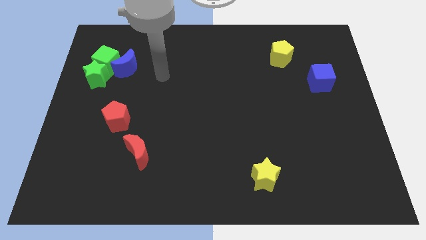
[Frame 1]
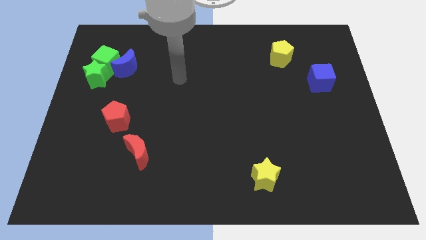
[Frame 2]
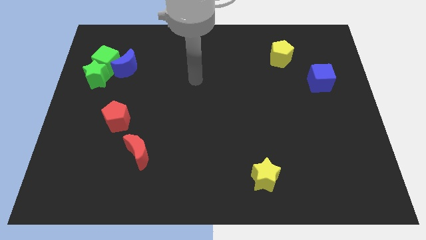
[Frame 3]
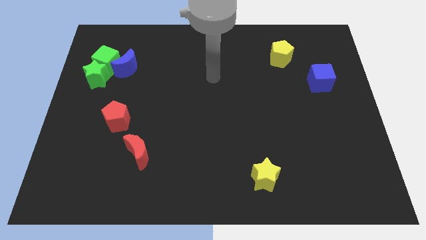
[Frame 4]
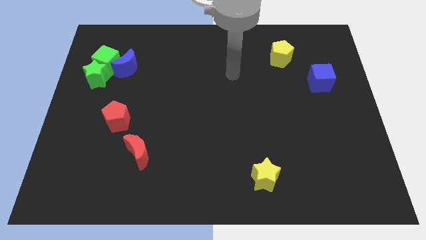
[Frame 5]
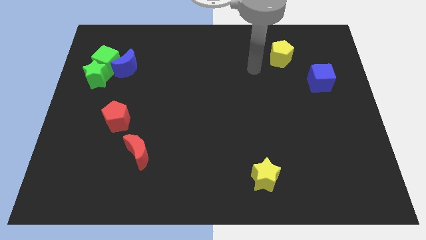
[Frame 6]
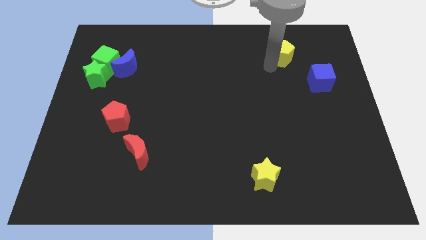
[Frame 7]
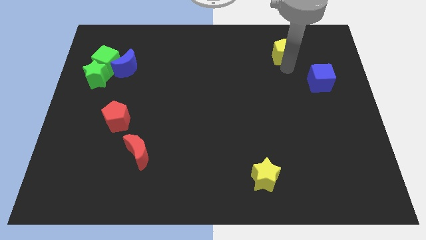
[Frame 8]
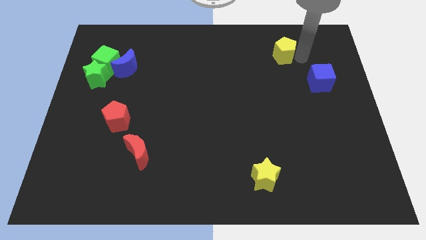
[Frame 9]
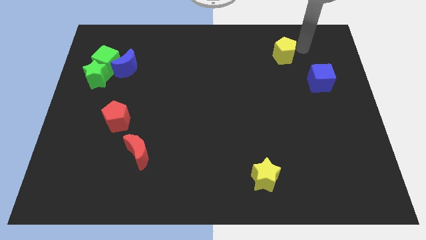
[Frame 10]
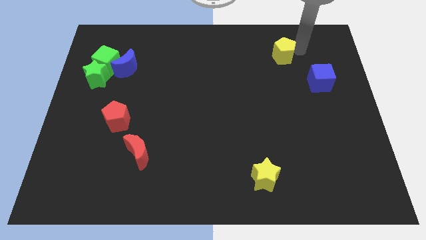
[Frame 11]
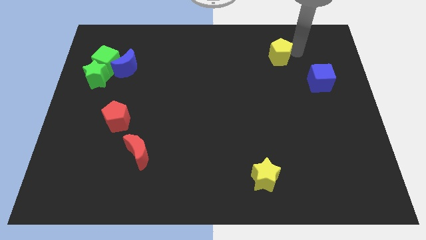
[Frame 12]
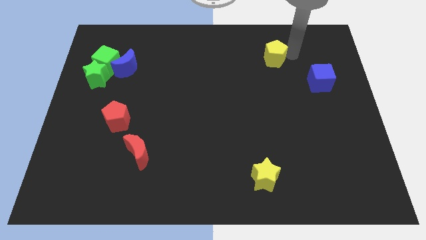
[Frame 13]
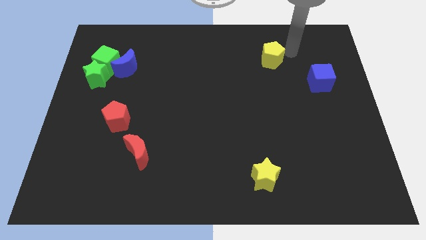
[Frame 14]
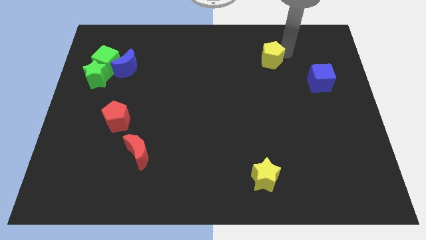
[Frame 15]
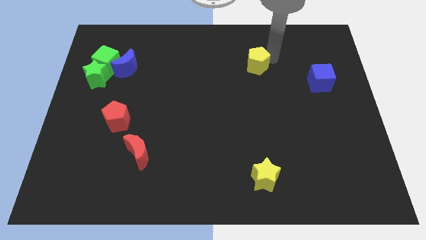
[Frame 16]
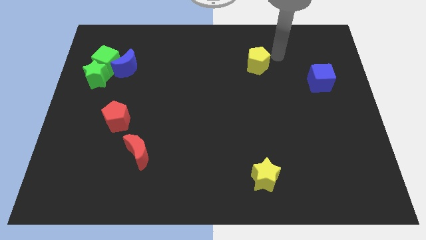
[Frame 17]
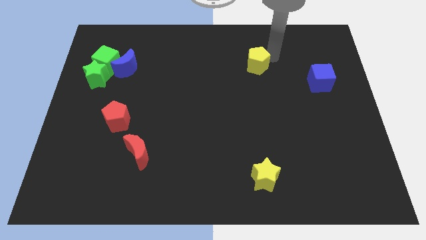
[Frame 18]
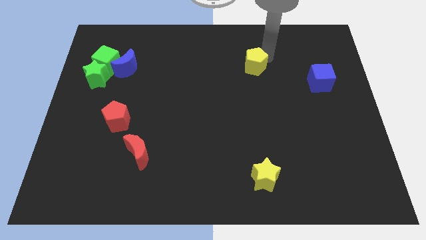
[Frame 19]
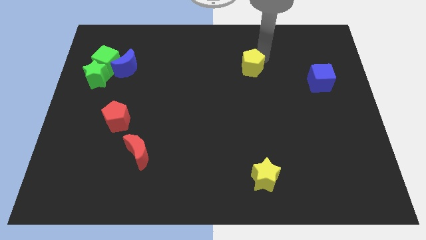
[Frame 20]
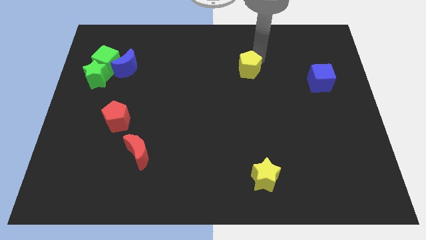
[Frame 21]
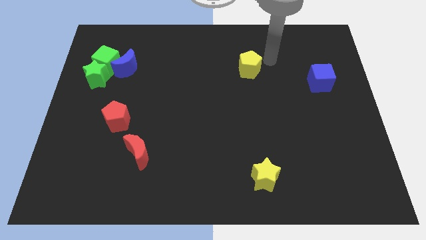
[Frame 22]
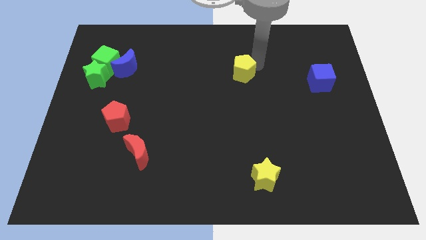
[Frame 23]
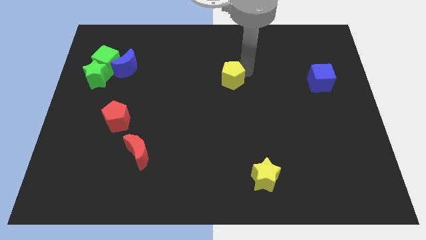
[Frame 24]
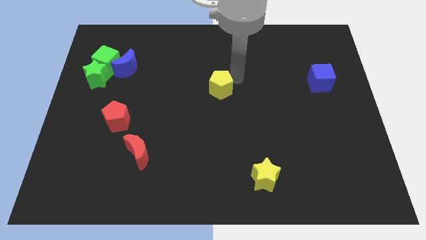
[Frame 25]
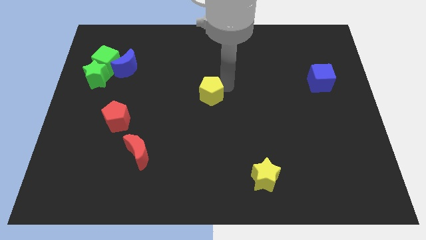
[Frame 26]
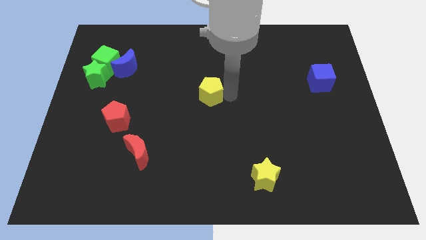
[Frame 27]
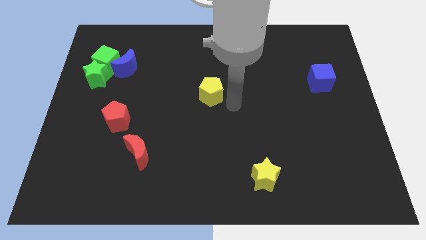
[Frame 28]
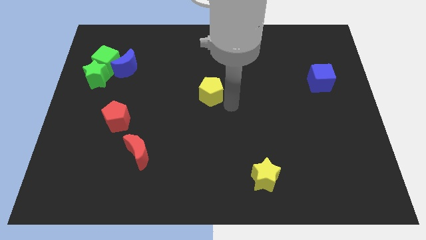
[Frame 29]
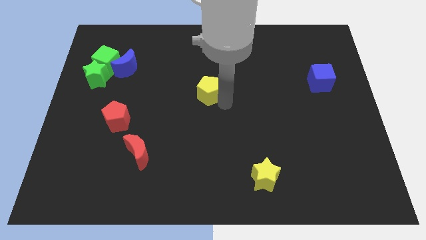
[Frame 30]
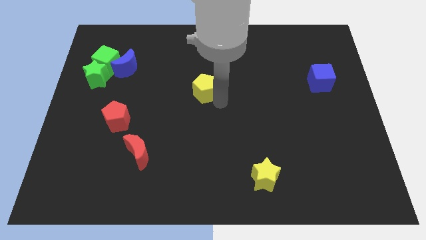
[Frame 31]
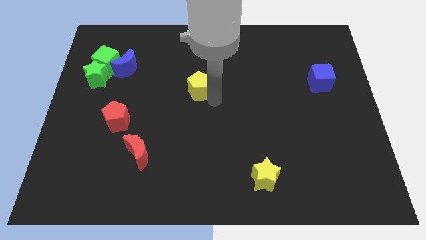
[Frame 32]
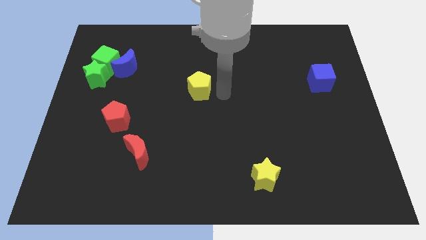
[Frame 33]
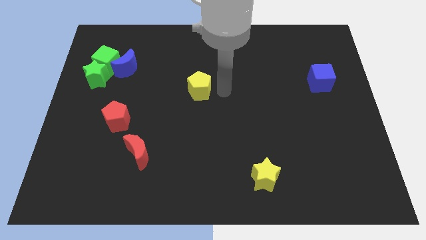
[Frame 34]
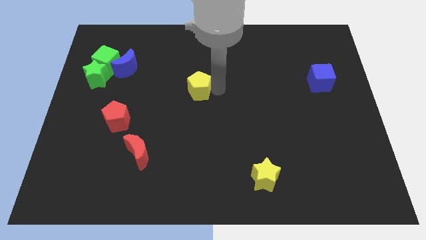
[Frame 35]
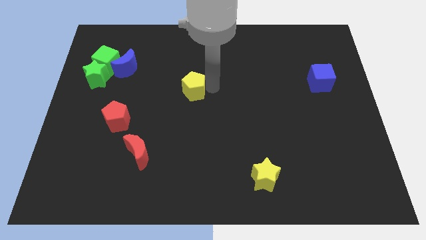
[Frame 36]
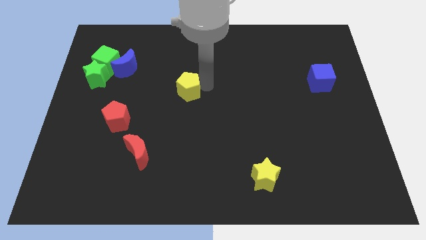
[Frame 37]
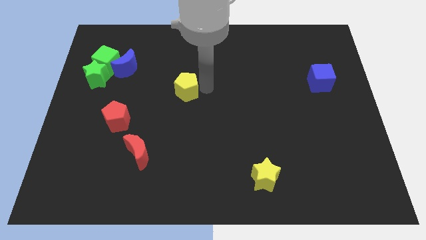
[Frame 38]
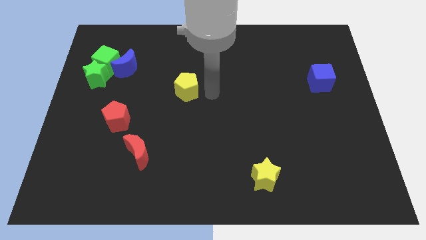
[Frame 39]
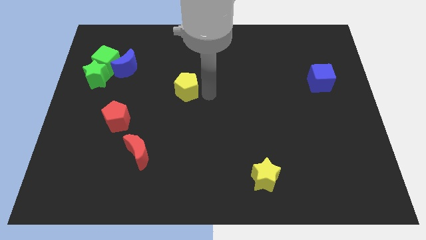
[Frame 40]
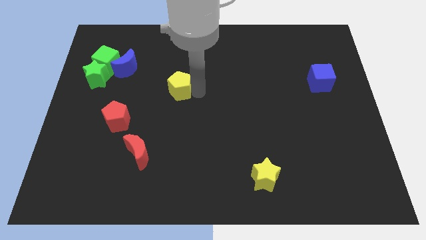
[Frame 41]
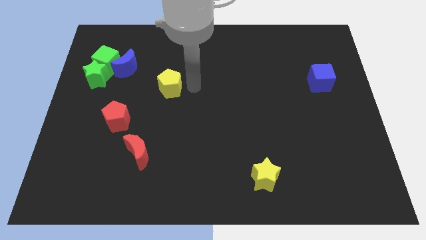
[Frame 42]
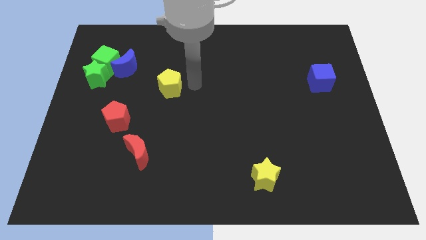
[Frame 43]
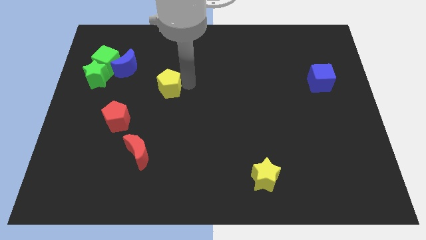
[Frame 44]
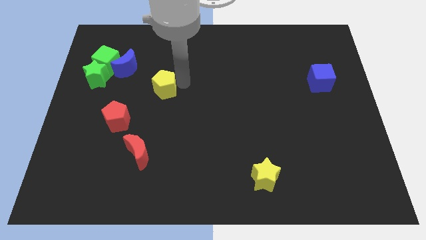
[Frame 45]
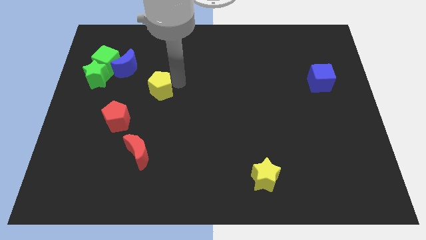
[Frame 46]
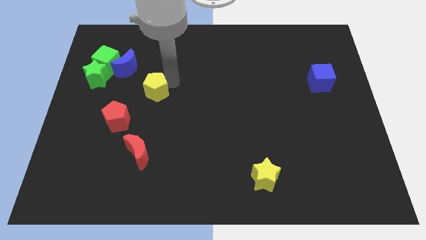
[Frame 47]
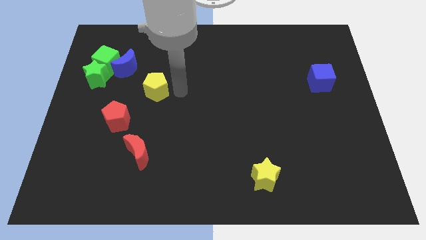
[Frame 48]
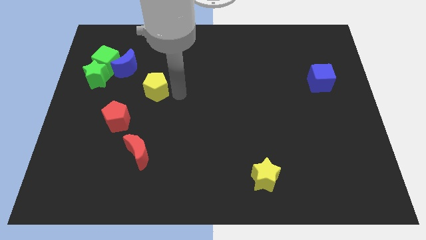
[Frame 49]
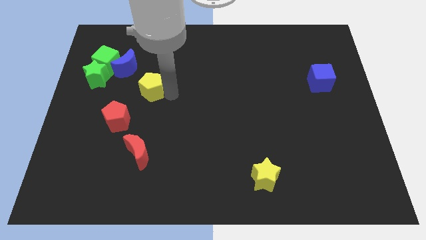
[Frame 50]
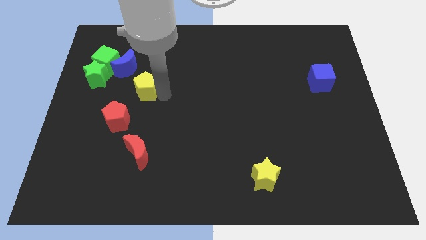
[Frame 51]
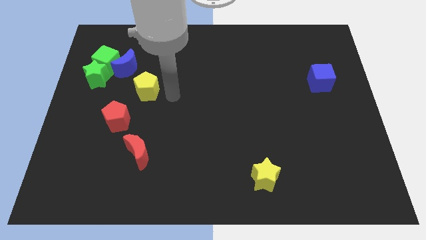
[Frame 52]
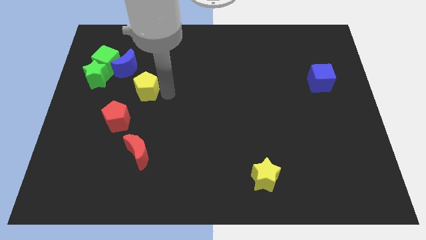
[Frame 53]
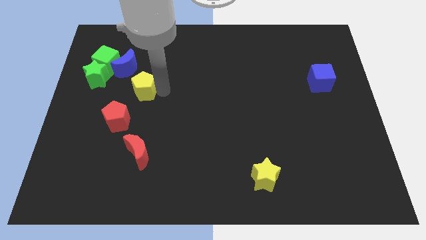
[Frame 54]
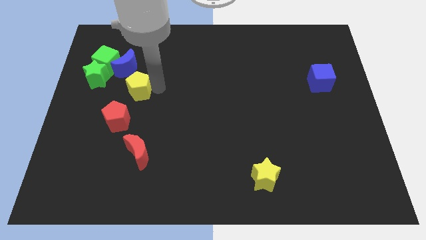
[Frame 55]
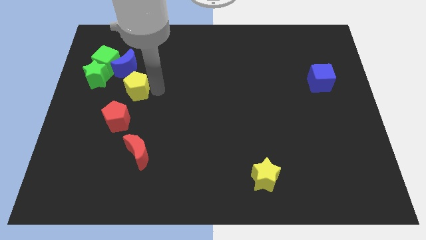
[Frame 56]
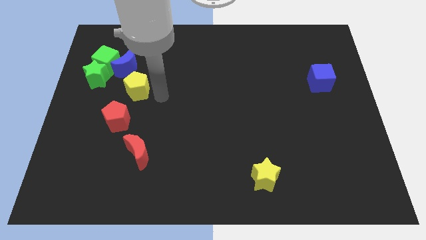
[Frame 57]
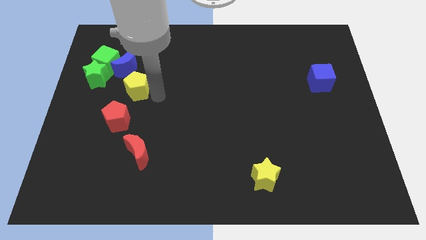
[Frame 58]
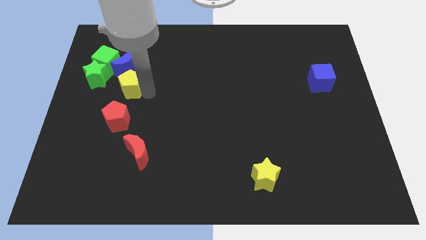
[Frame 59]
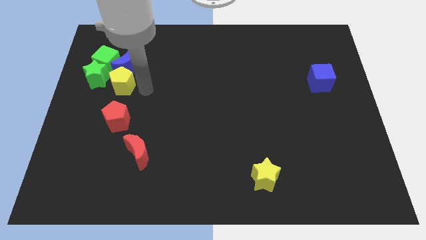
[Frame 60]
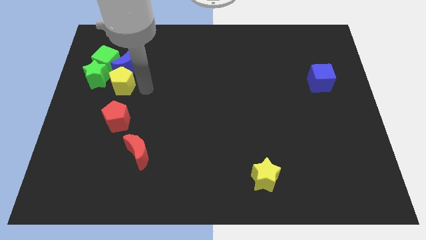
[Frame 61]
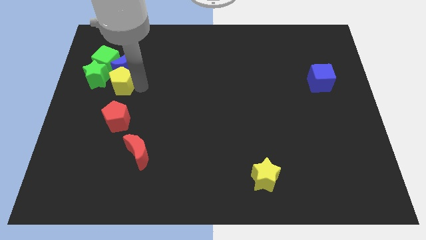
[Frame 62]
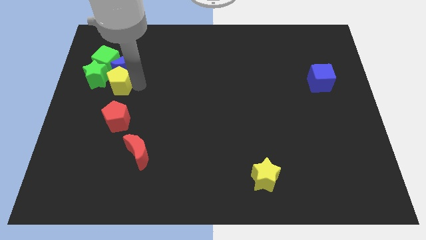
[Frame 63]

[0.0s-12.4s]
put the yellow pentagon next to the green star

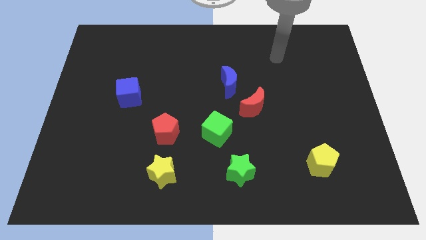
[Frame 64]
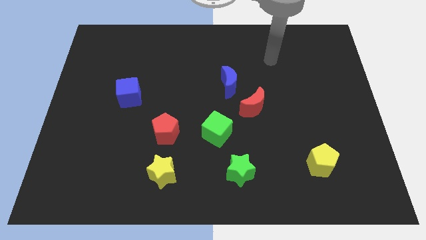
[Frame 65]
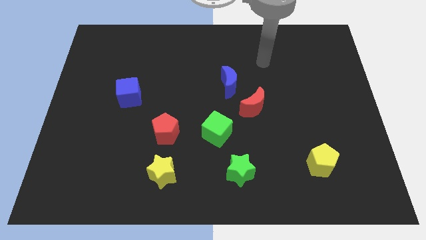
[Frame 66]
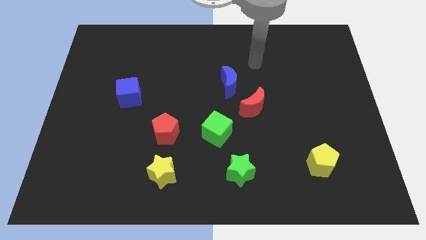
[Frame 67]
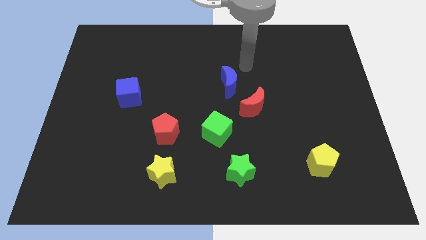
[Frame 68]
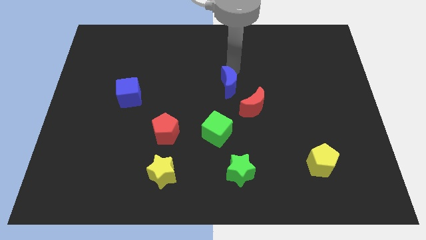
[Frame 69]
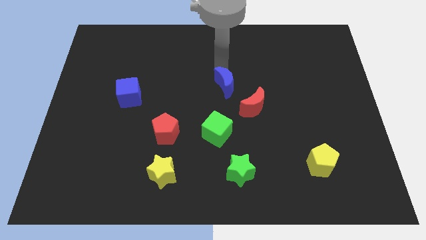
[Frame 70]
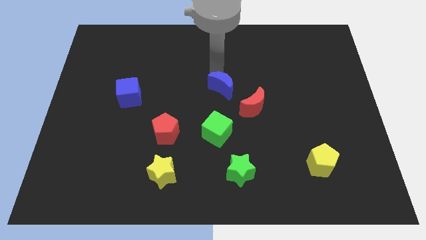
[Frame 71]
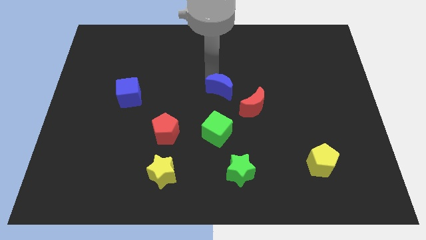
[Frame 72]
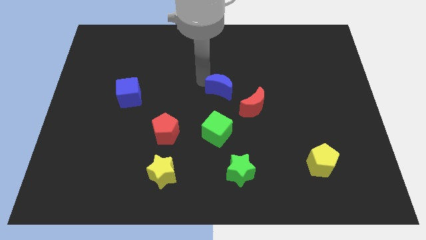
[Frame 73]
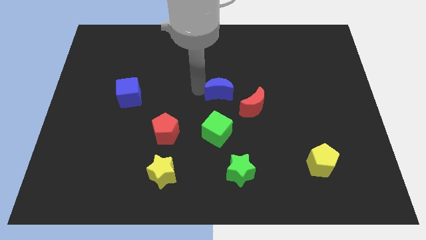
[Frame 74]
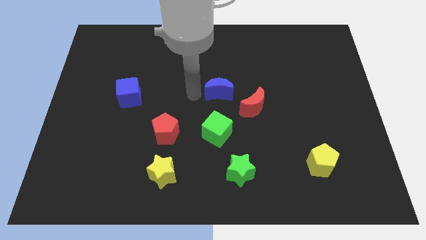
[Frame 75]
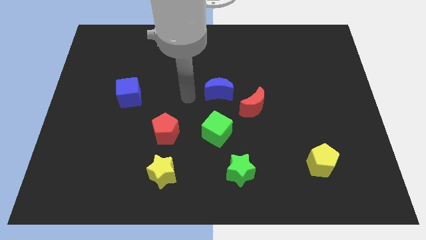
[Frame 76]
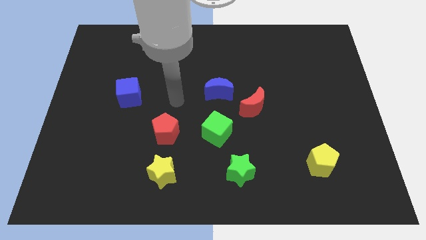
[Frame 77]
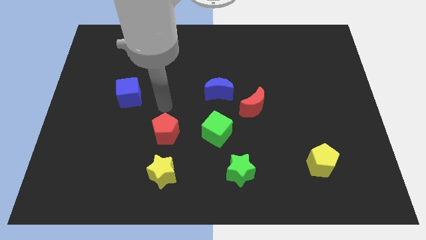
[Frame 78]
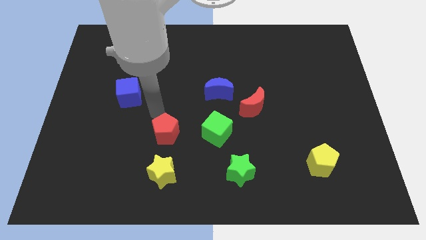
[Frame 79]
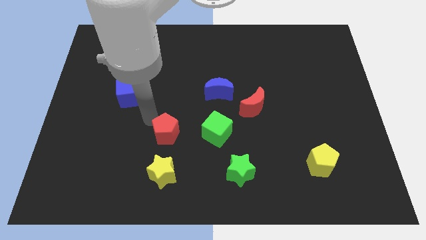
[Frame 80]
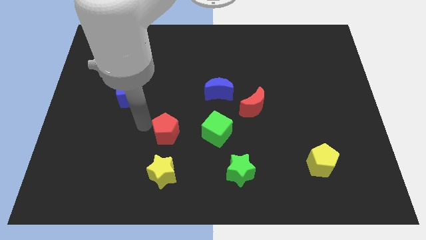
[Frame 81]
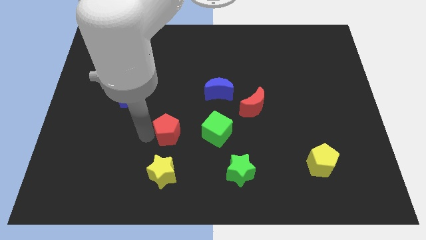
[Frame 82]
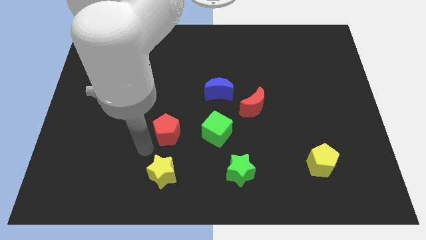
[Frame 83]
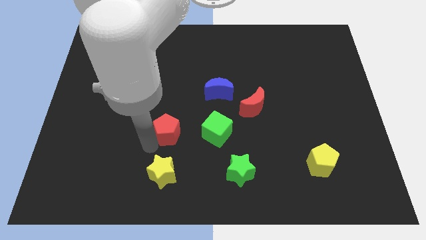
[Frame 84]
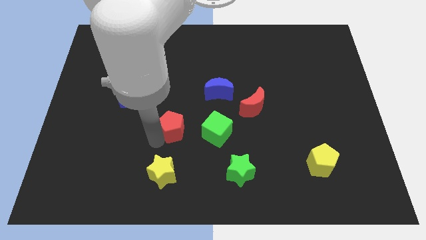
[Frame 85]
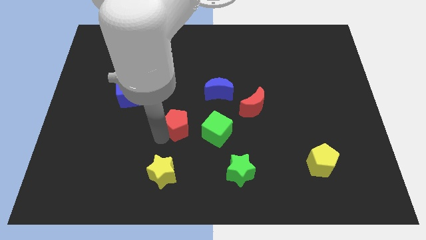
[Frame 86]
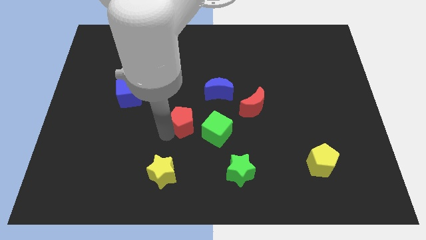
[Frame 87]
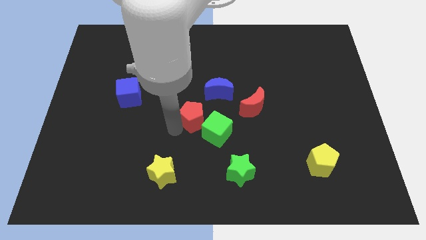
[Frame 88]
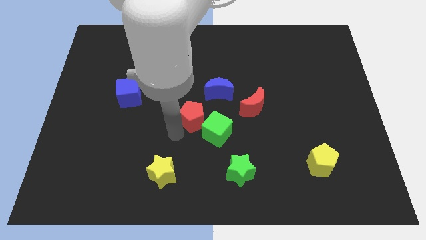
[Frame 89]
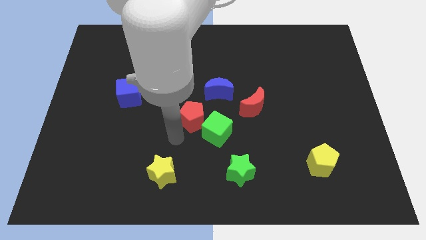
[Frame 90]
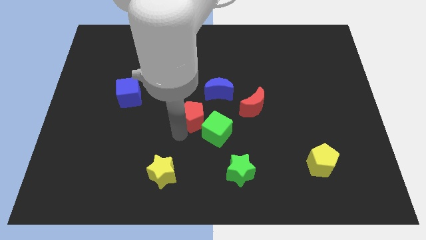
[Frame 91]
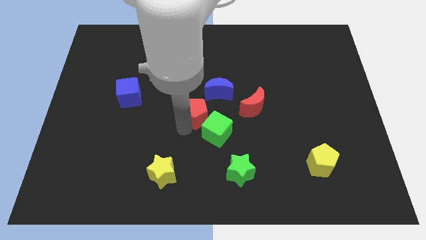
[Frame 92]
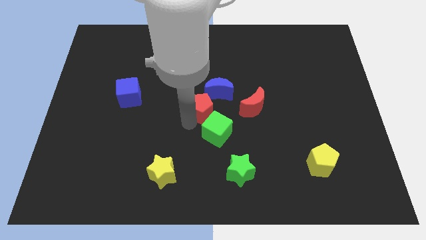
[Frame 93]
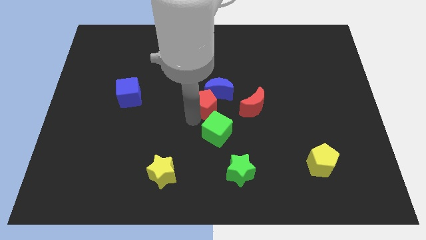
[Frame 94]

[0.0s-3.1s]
move the red pentagon towards the blue moon
